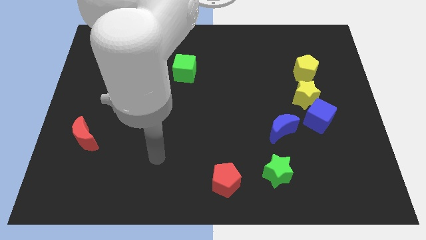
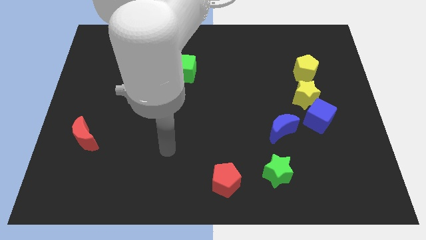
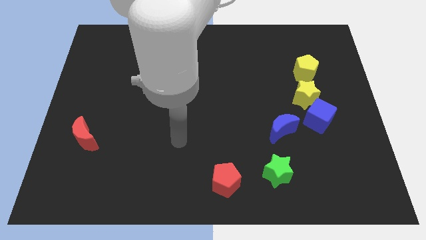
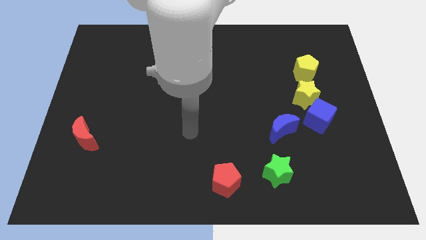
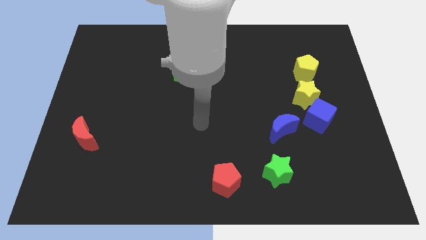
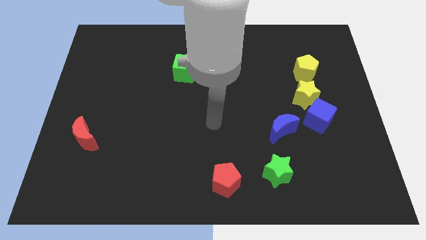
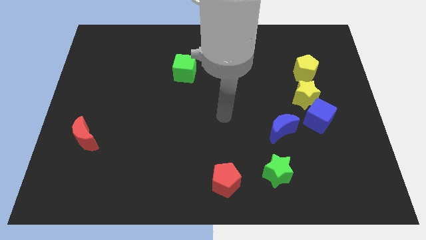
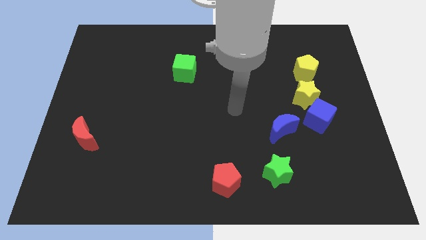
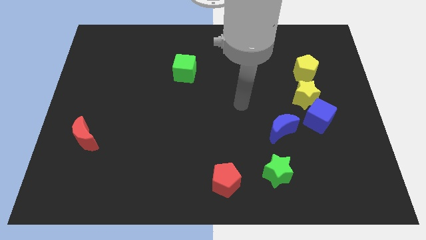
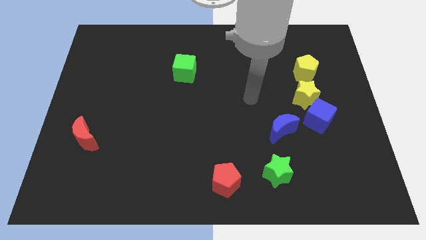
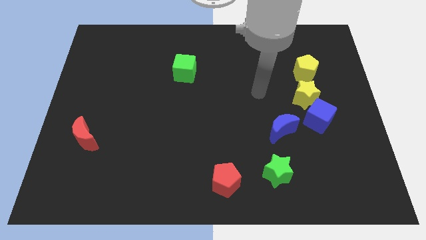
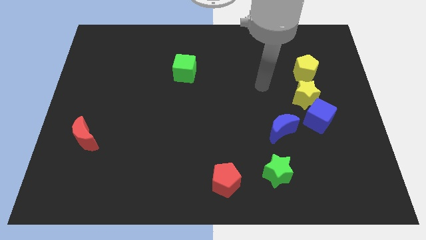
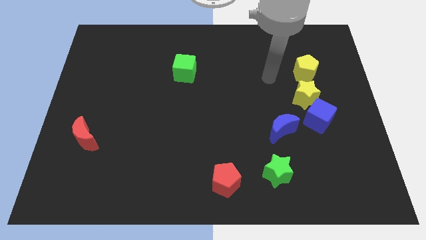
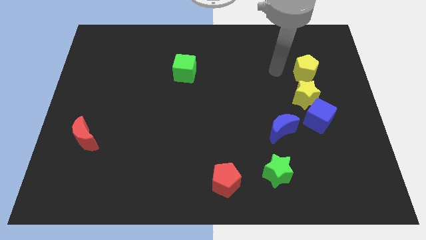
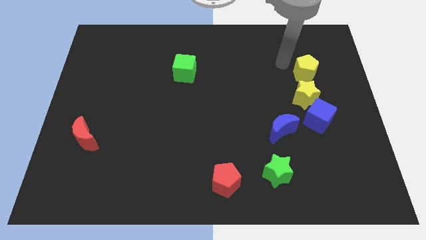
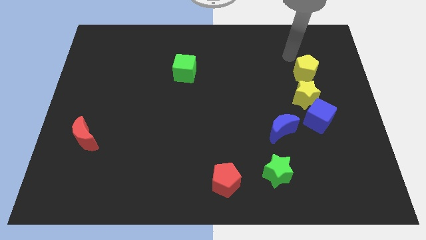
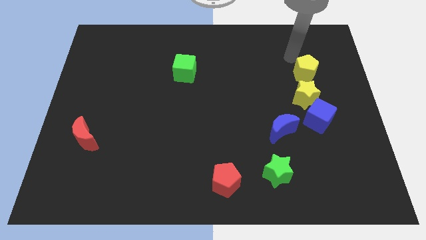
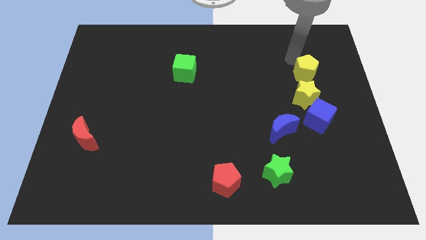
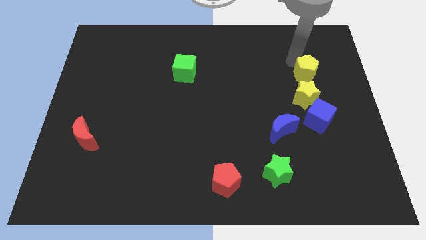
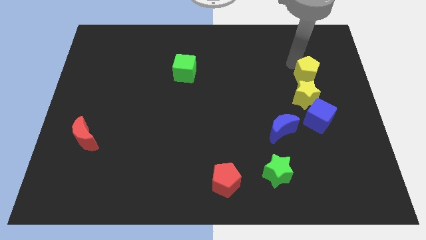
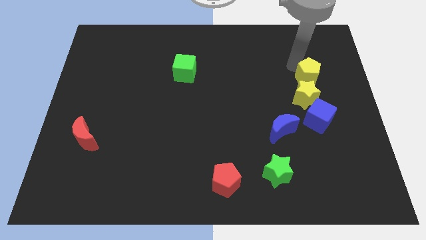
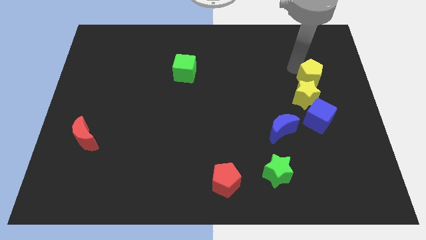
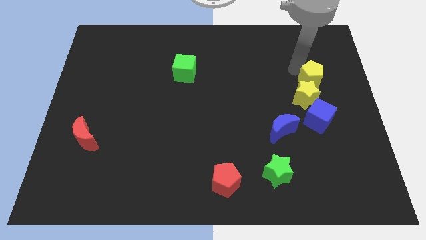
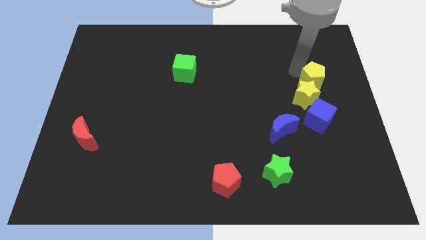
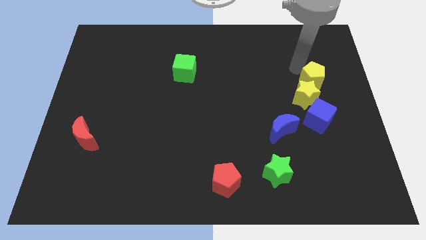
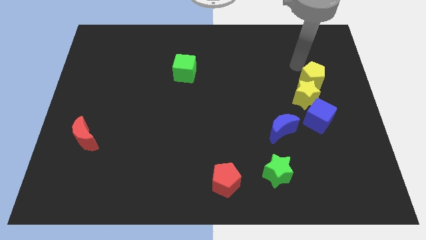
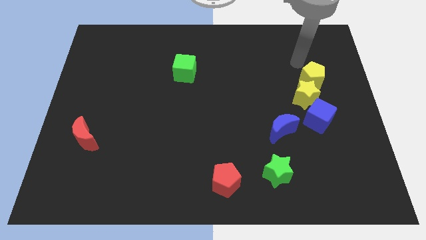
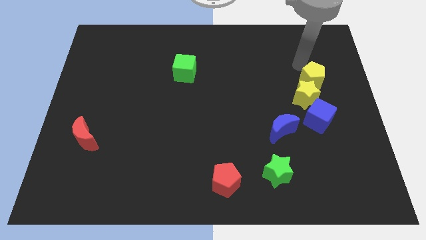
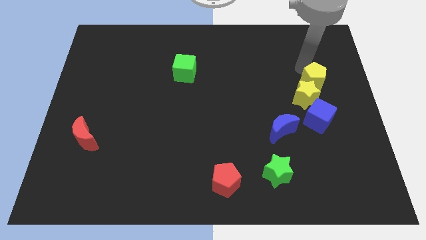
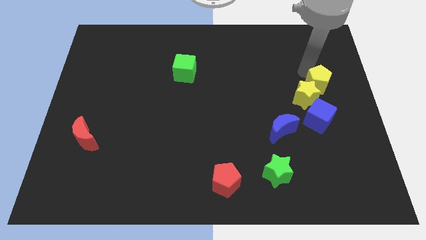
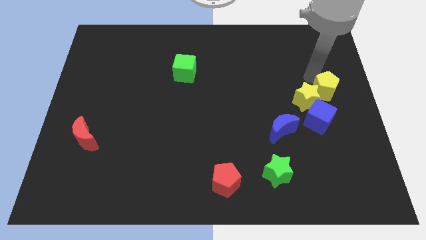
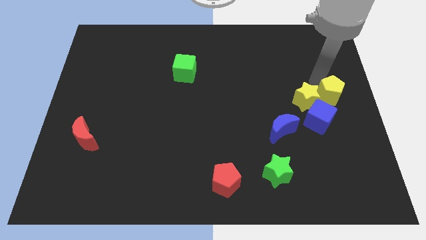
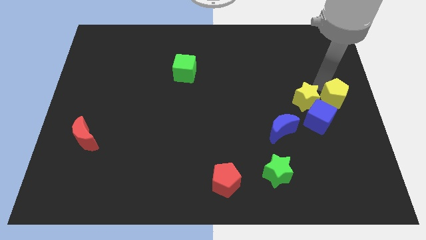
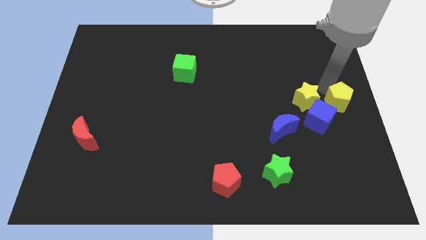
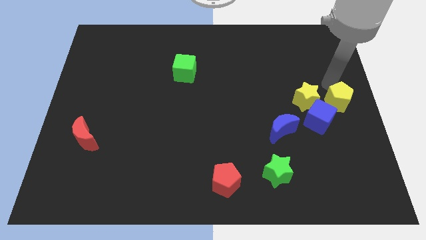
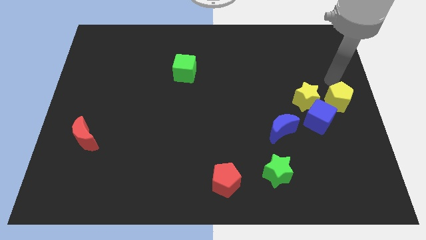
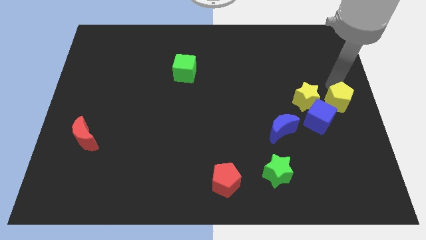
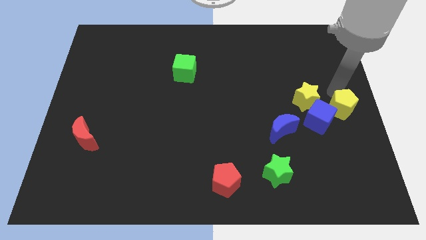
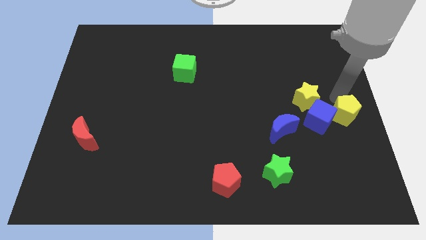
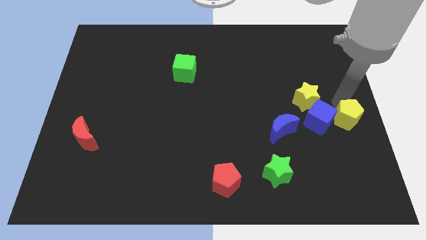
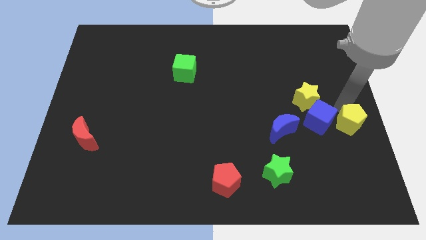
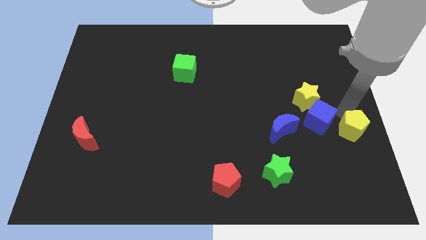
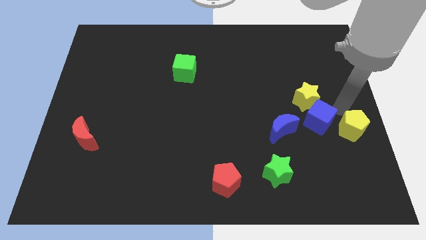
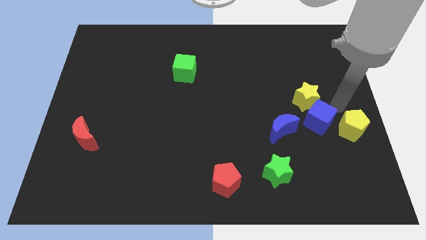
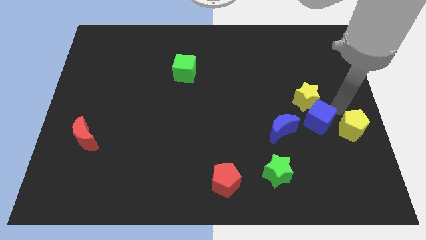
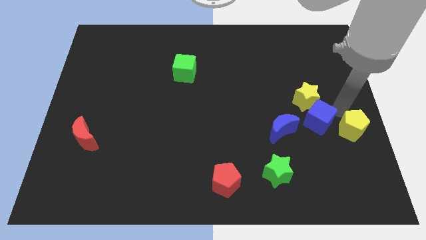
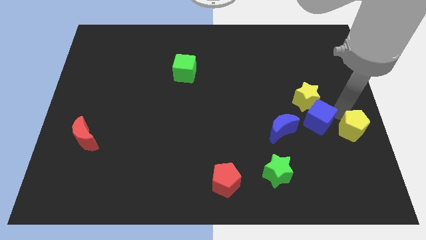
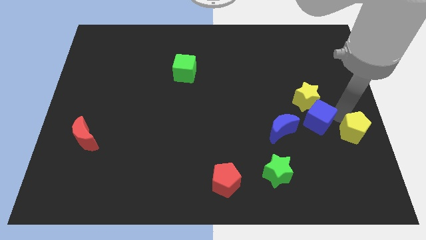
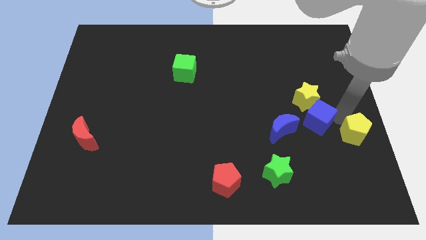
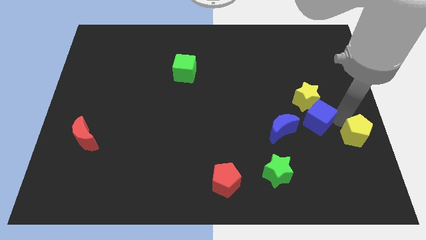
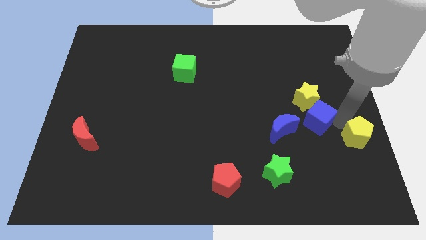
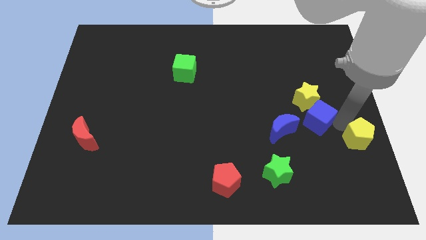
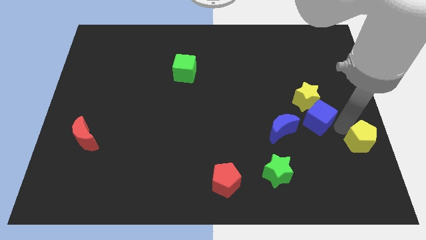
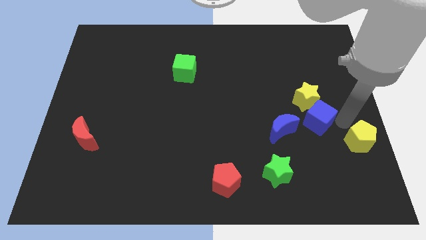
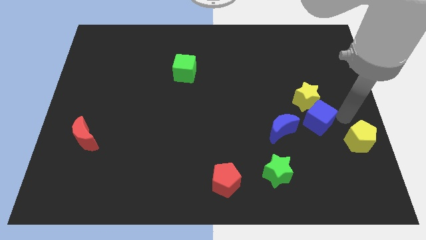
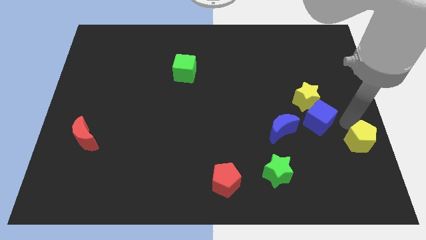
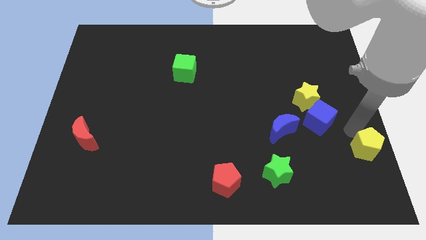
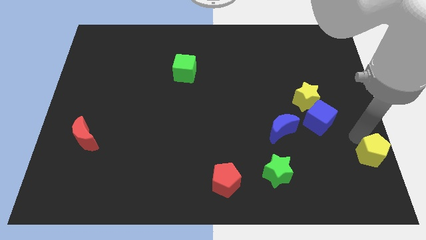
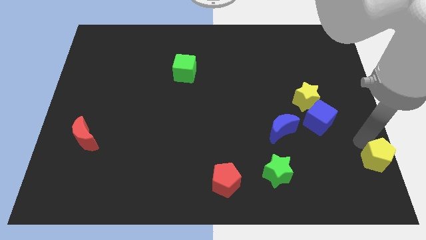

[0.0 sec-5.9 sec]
put the yellow pentagon to the bottom right corner
